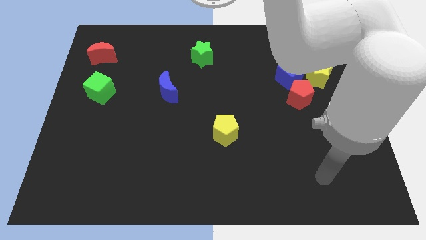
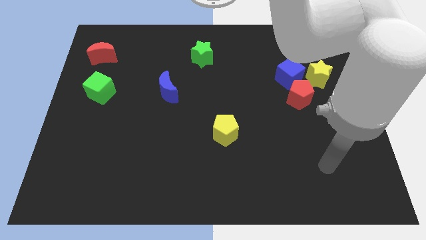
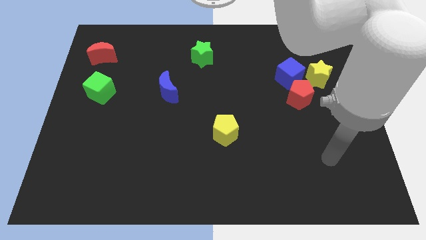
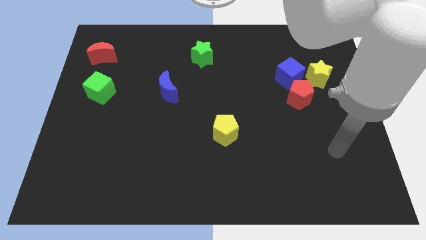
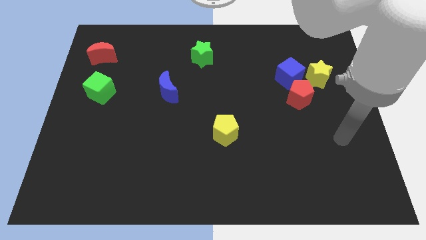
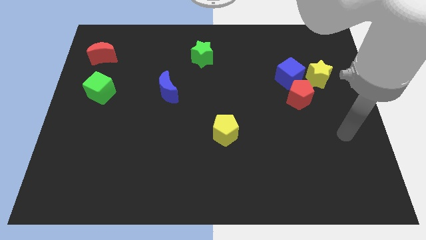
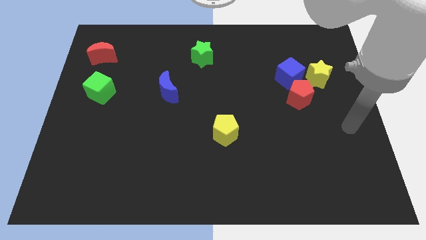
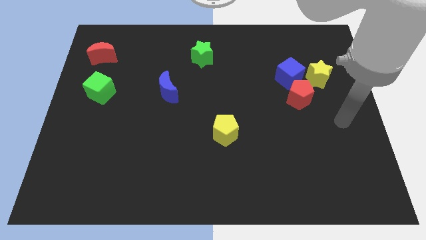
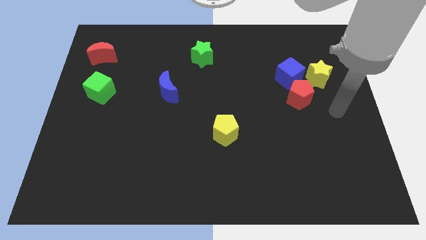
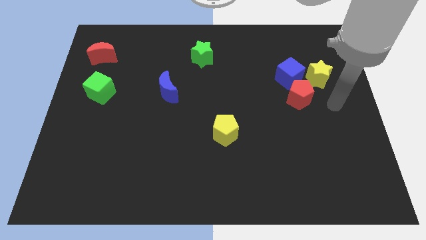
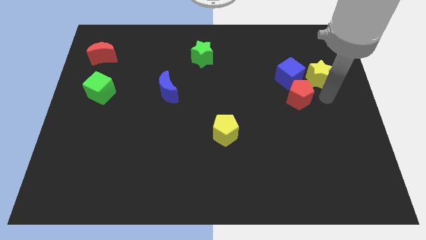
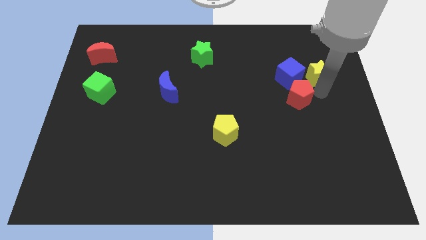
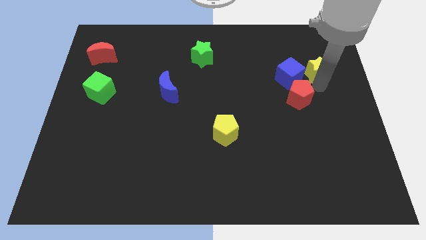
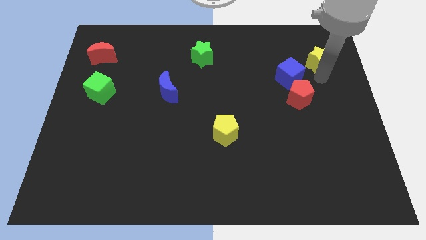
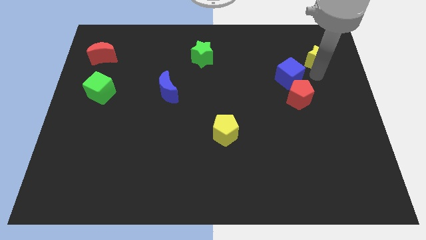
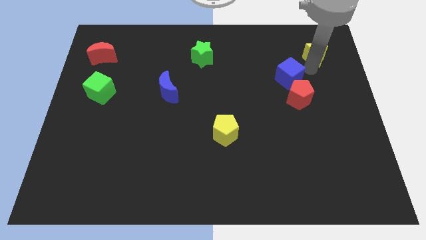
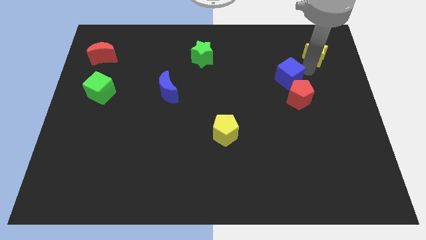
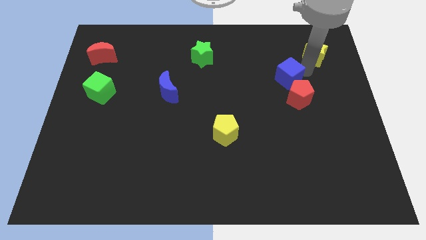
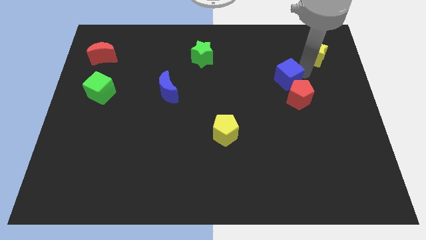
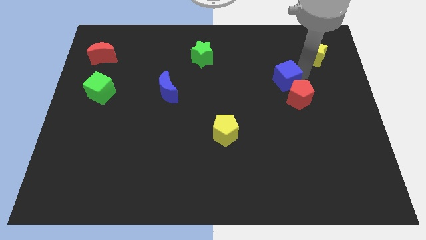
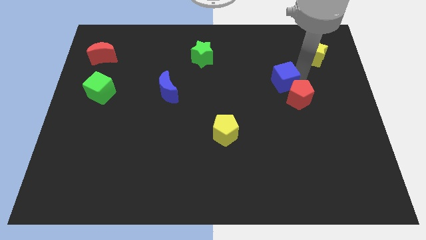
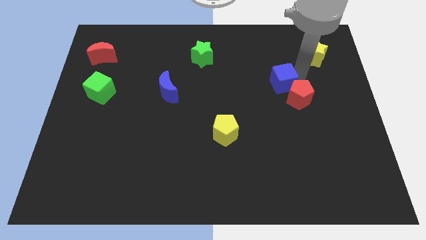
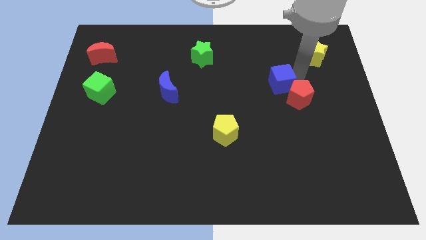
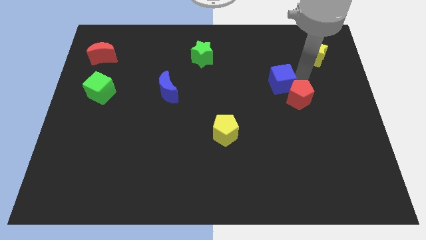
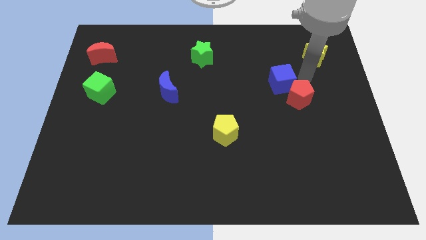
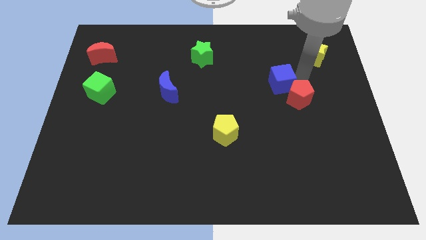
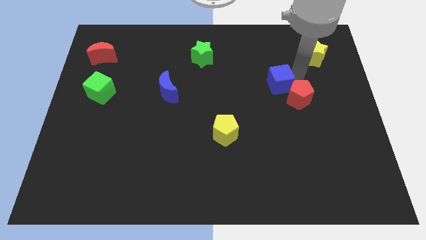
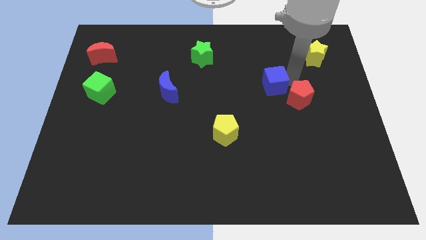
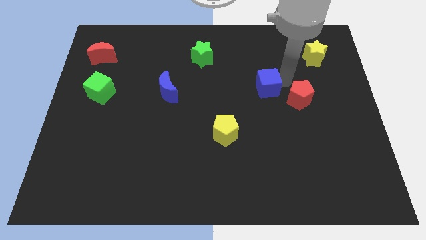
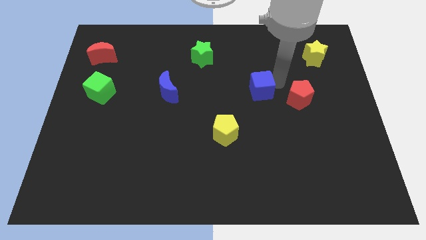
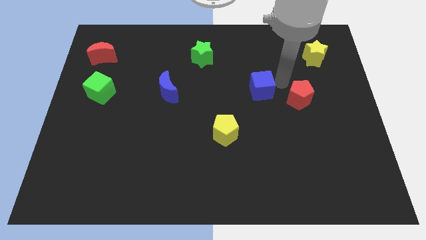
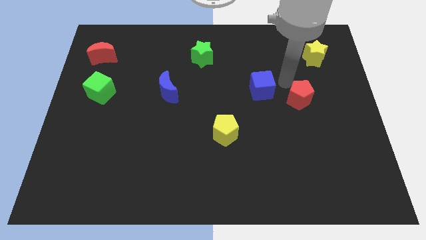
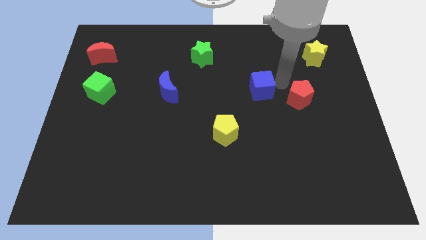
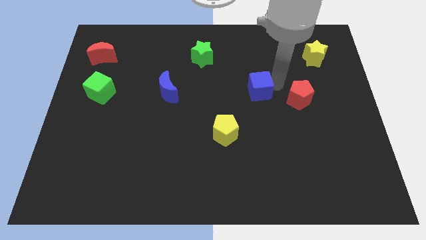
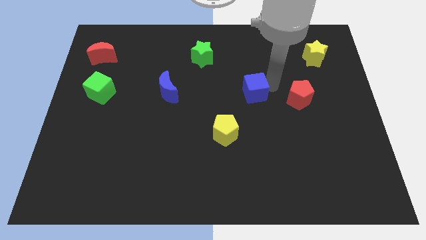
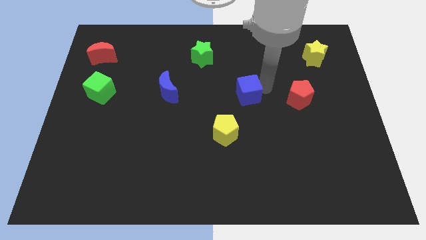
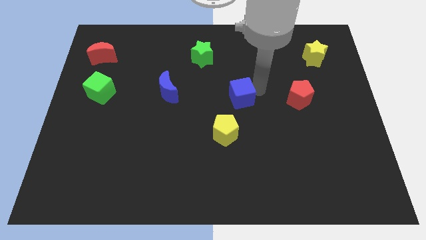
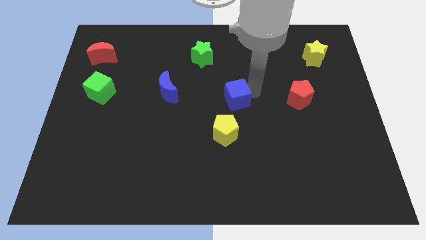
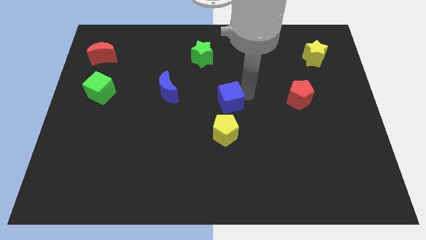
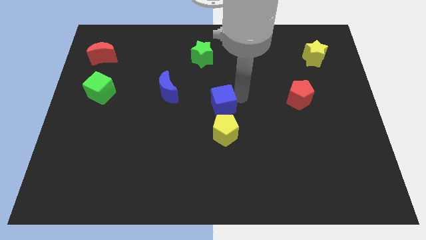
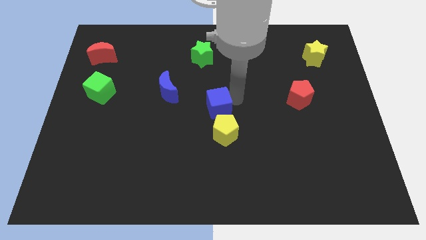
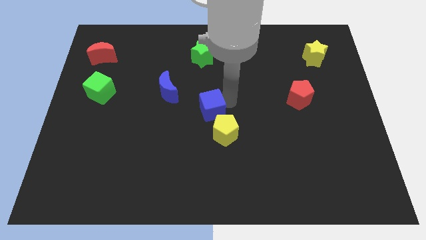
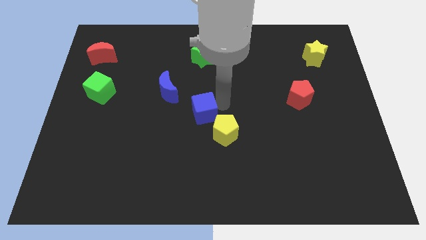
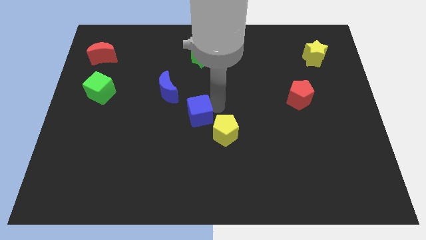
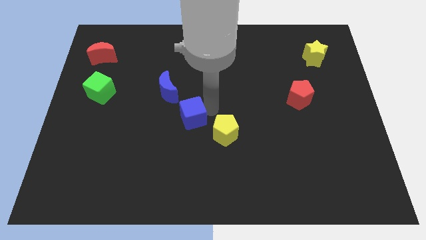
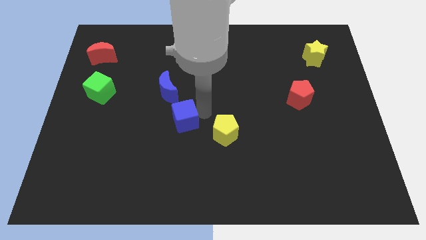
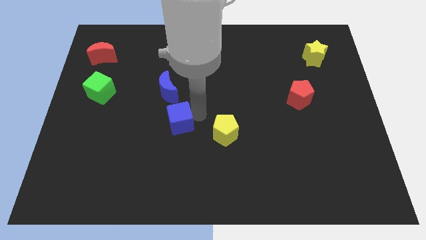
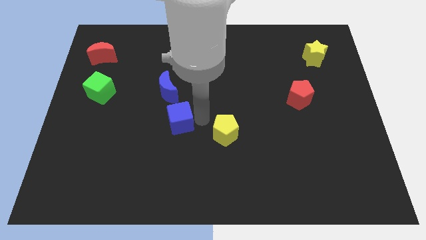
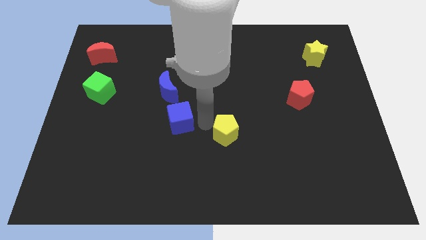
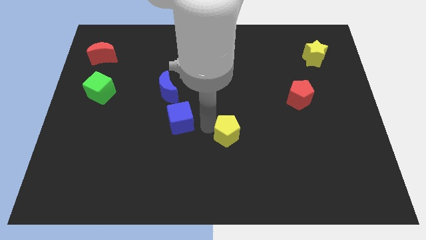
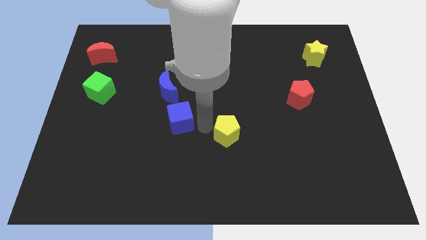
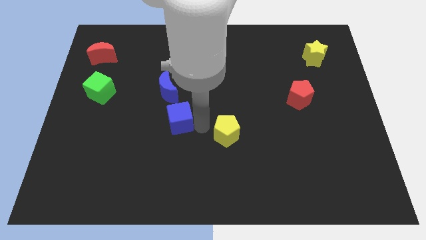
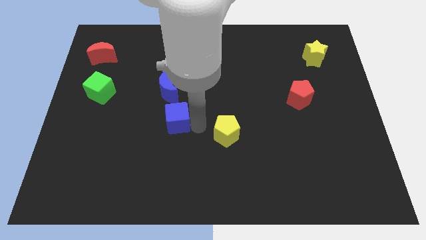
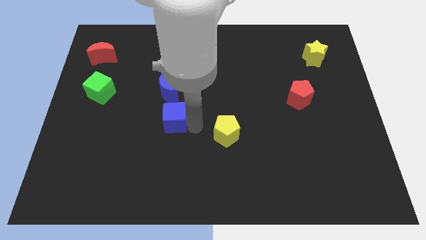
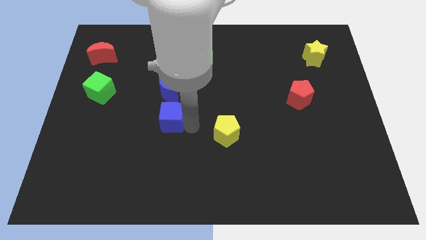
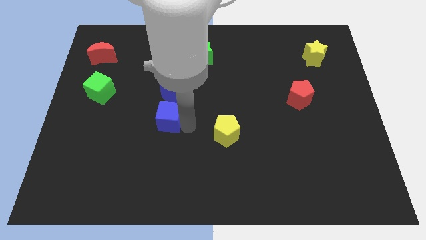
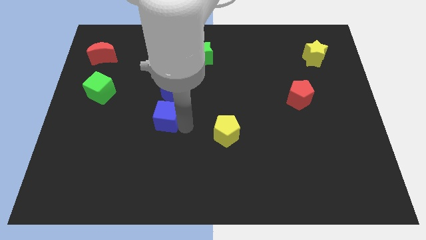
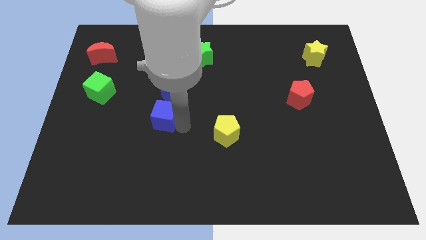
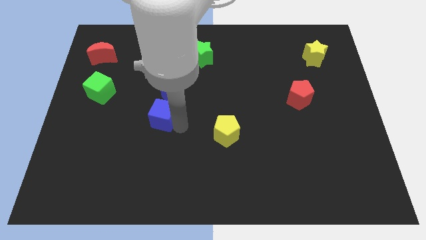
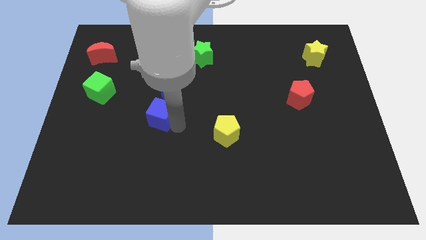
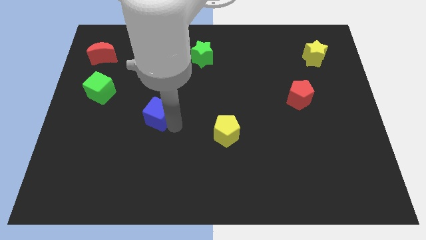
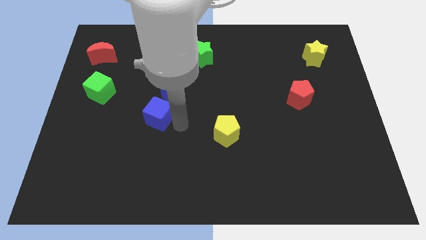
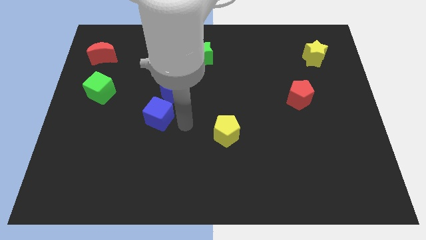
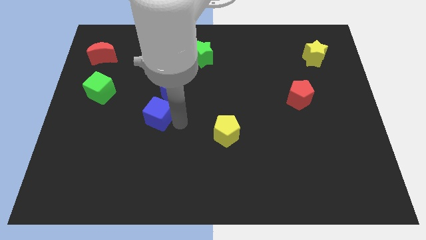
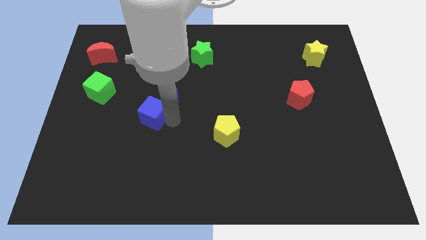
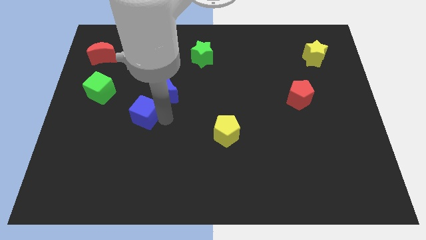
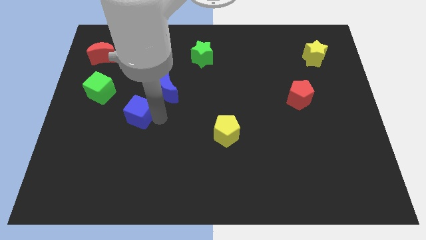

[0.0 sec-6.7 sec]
put the blue cube to the bottom right of the green cube

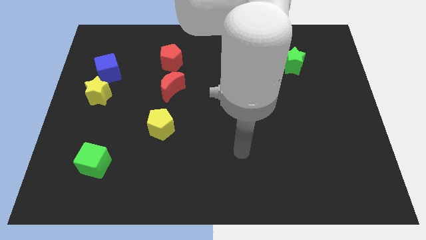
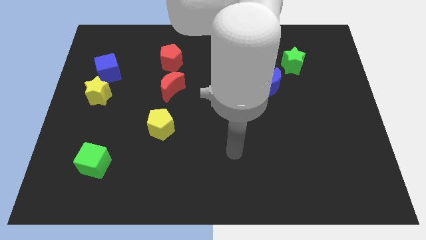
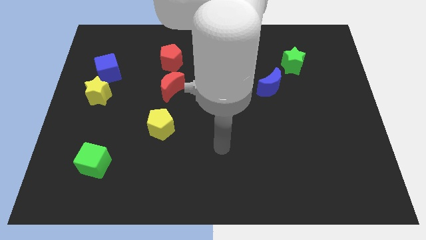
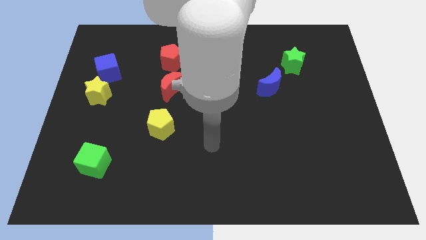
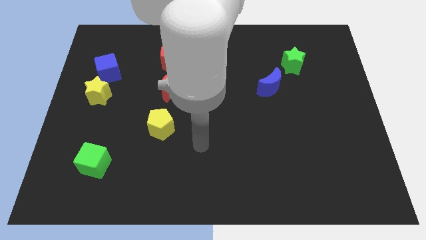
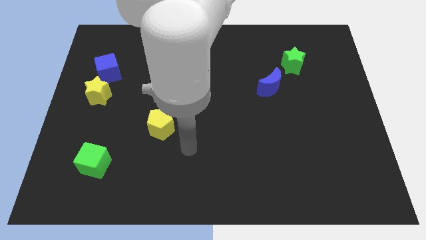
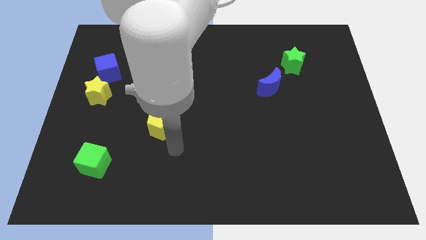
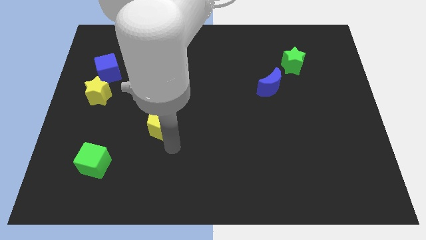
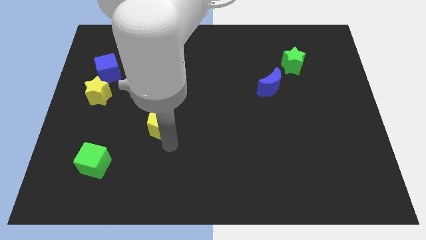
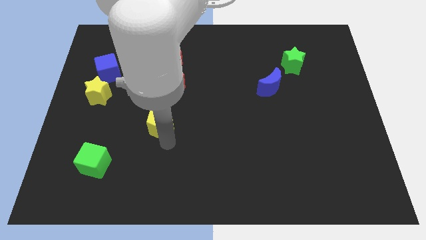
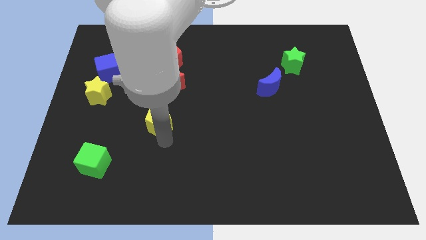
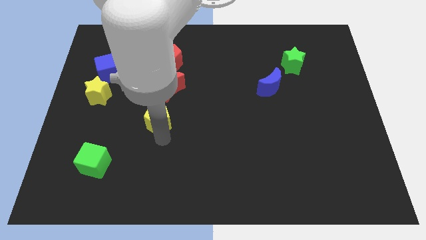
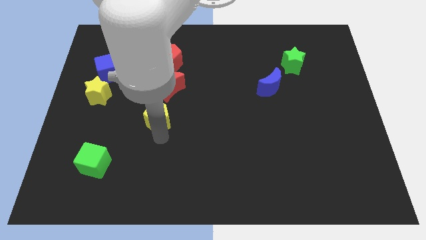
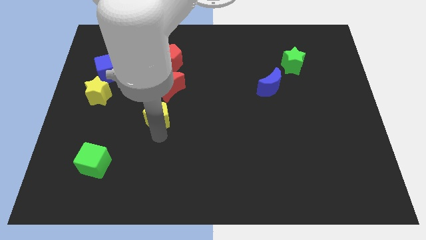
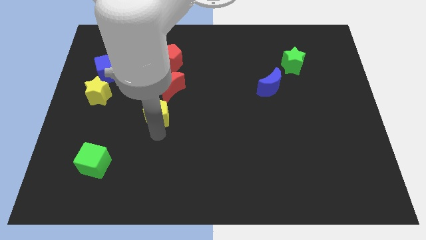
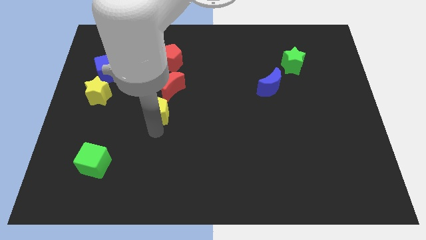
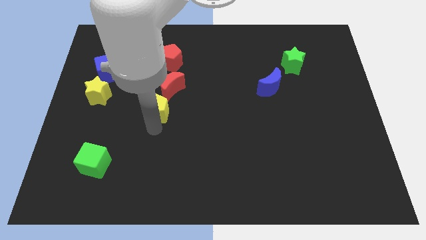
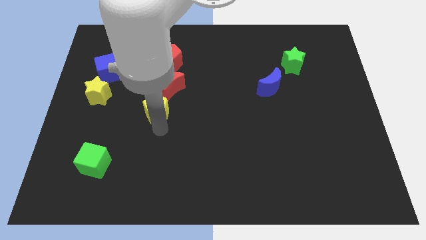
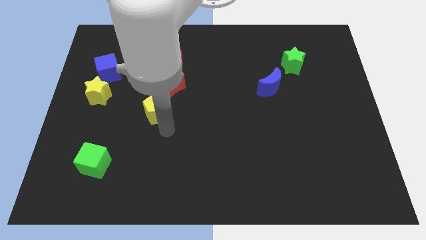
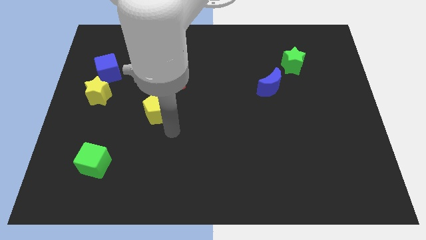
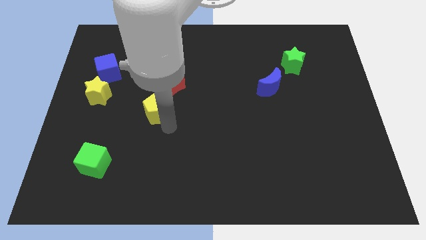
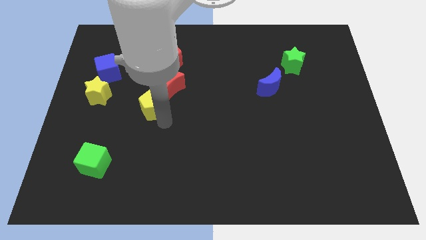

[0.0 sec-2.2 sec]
move the yellow pentagon to the right of the yellow star
